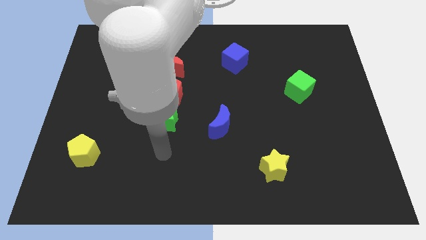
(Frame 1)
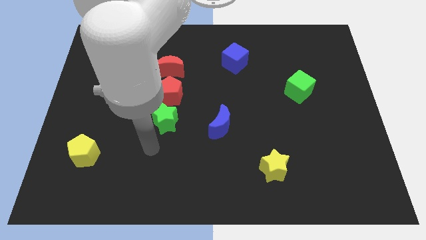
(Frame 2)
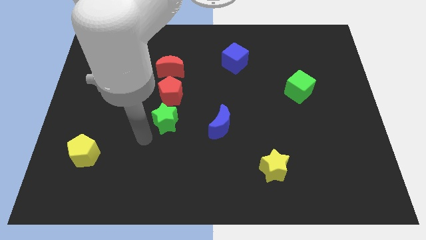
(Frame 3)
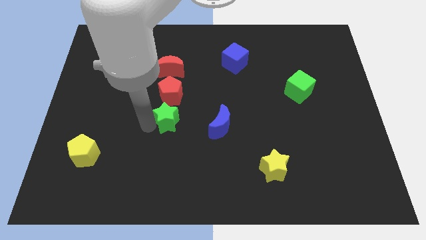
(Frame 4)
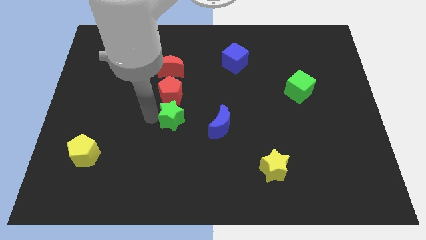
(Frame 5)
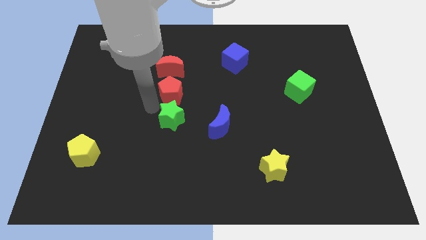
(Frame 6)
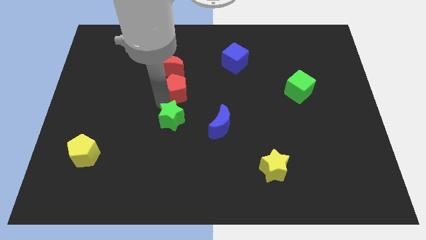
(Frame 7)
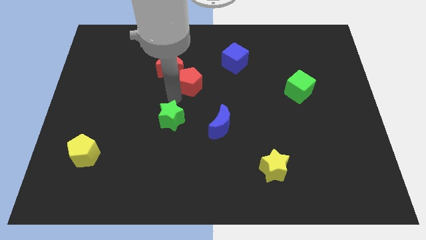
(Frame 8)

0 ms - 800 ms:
move the green star away from the red pentagon

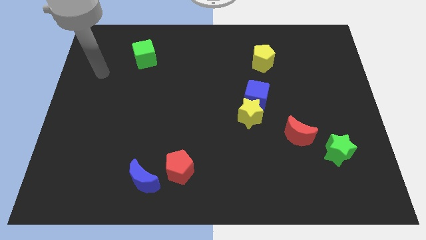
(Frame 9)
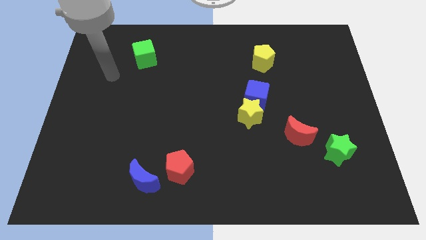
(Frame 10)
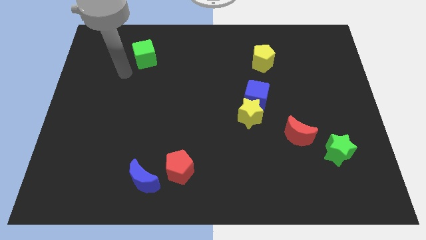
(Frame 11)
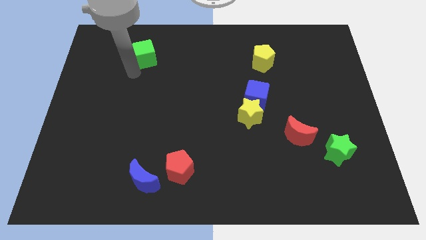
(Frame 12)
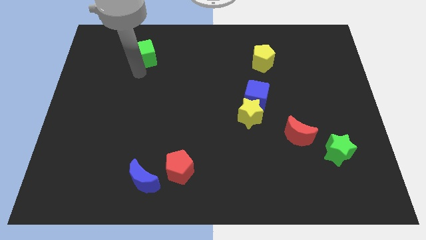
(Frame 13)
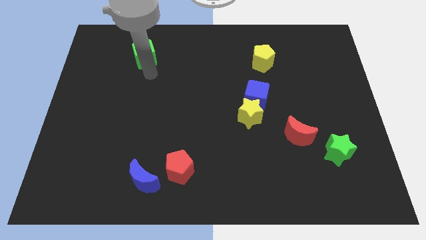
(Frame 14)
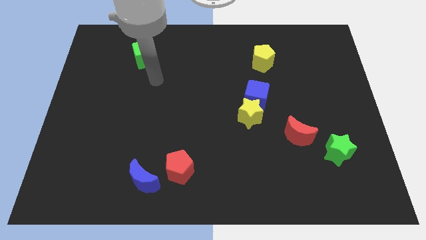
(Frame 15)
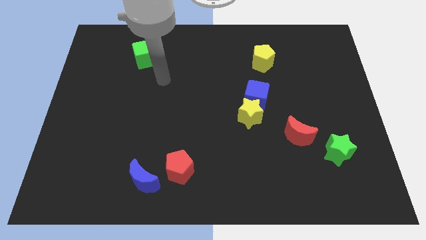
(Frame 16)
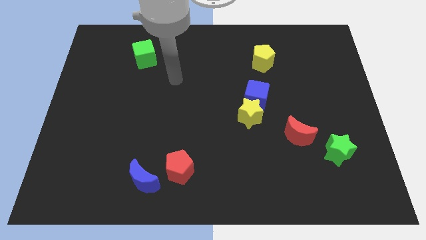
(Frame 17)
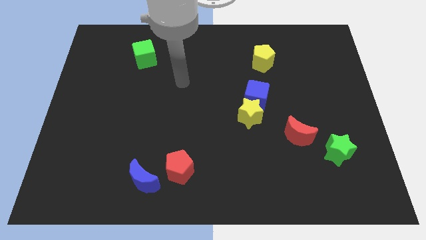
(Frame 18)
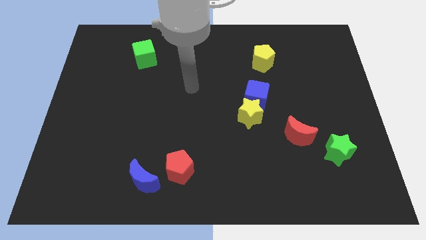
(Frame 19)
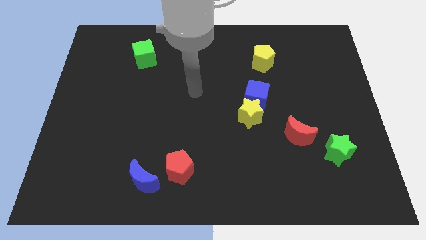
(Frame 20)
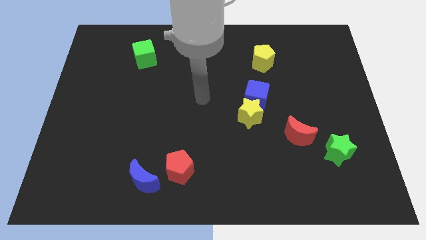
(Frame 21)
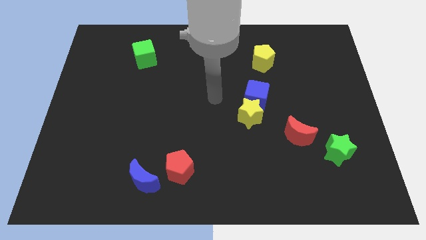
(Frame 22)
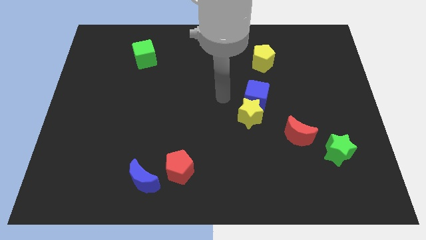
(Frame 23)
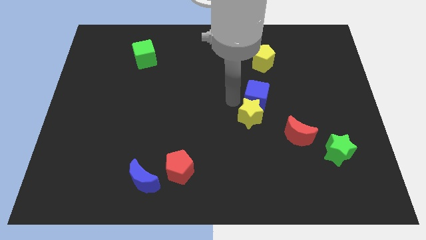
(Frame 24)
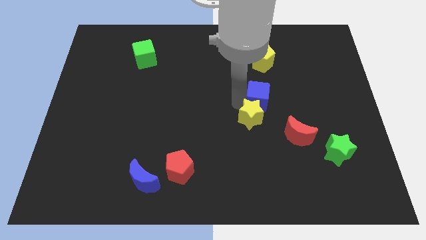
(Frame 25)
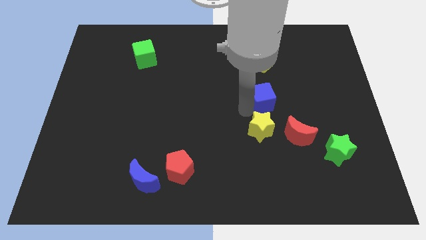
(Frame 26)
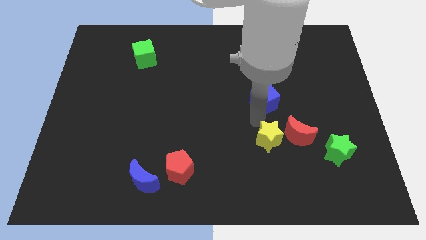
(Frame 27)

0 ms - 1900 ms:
move the blue cube away from the yellow star

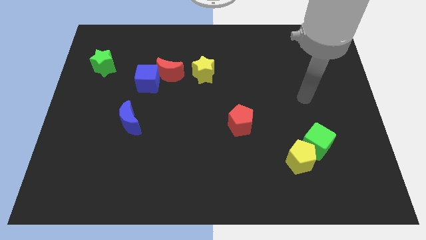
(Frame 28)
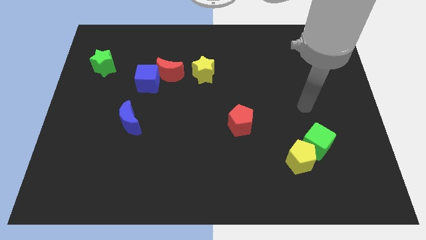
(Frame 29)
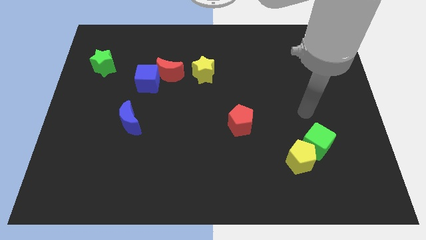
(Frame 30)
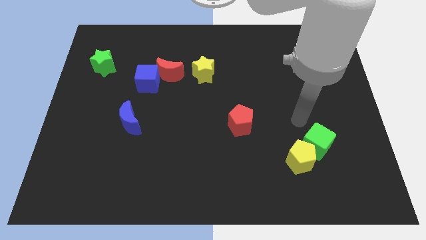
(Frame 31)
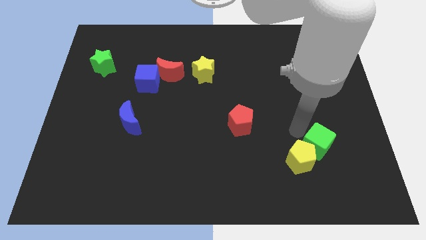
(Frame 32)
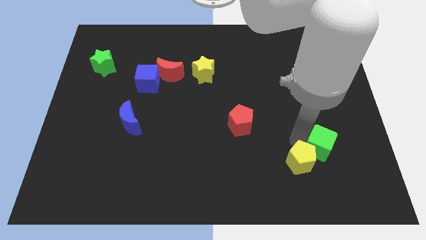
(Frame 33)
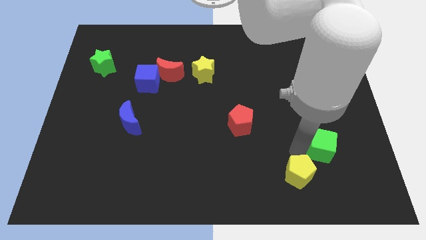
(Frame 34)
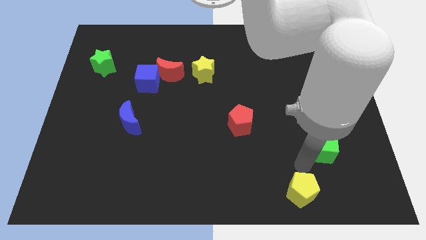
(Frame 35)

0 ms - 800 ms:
separate the green cube from the yellow pentagon

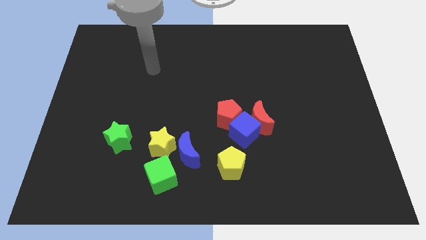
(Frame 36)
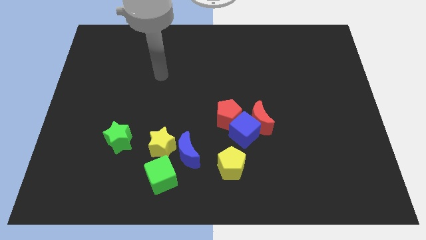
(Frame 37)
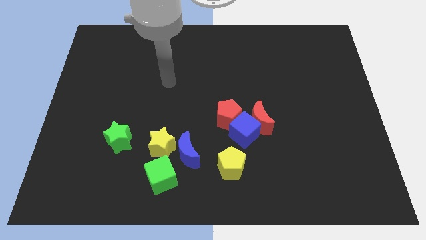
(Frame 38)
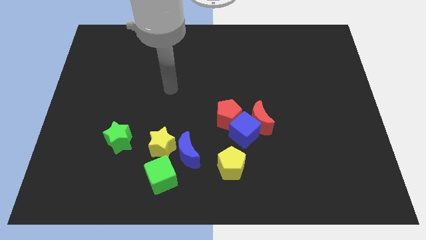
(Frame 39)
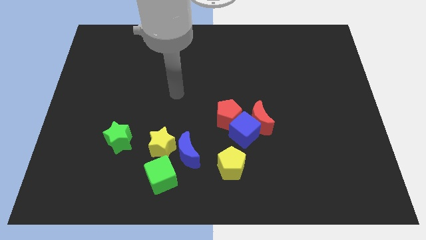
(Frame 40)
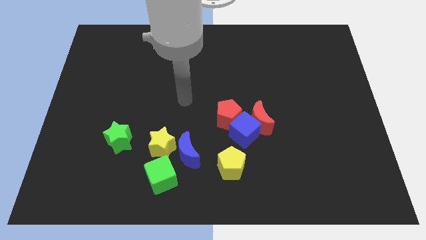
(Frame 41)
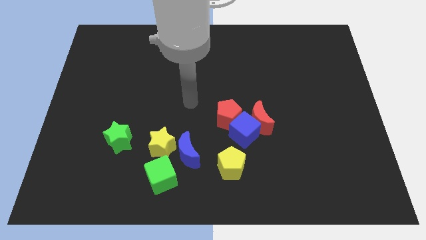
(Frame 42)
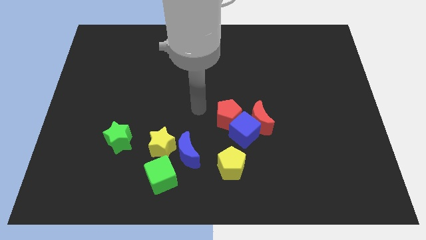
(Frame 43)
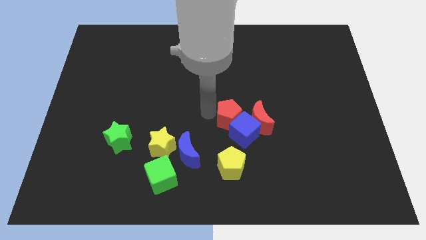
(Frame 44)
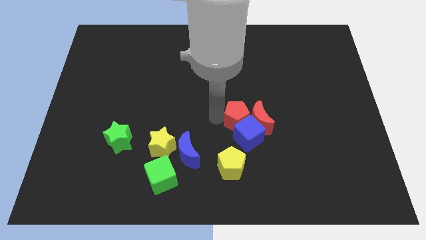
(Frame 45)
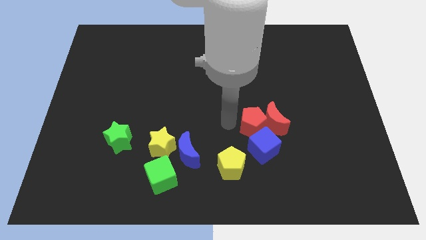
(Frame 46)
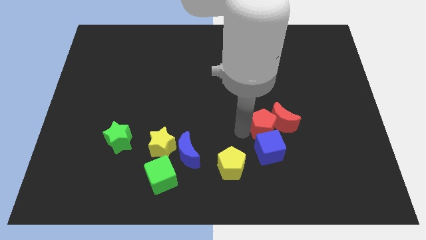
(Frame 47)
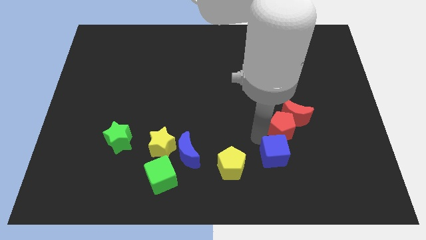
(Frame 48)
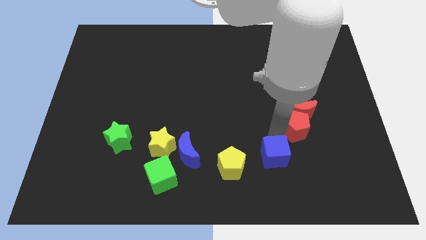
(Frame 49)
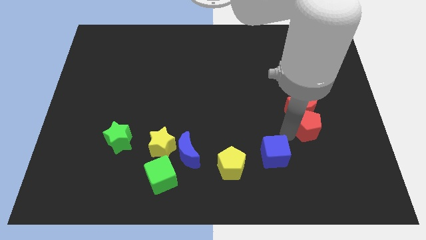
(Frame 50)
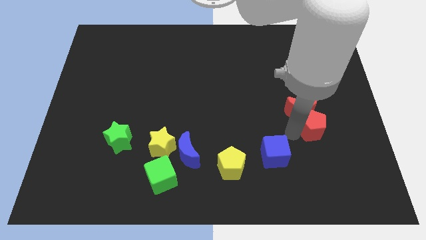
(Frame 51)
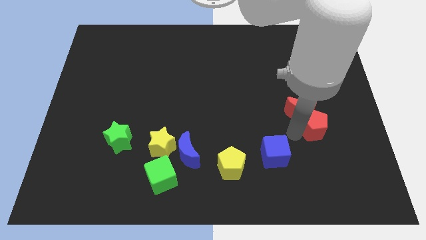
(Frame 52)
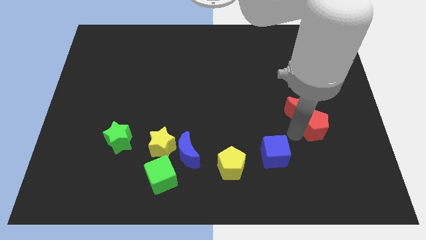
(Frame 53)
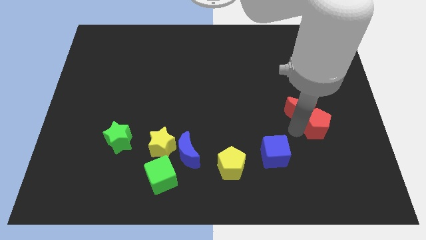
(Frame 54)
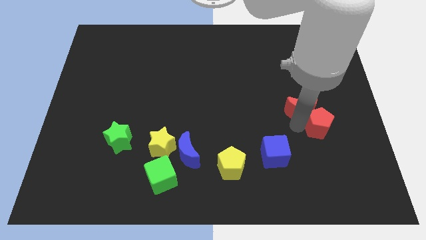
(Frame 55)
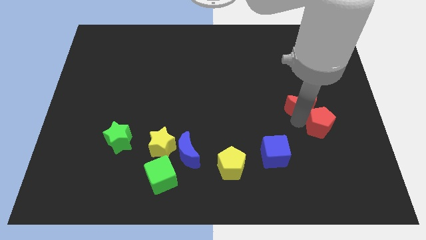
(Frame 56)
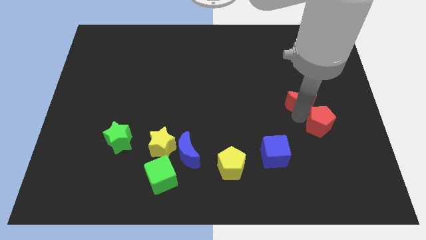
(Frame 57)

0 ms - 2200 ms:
pull the red moon apart from the blue cube and red pentagon

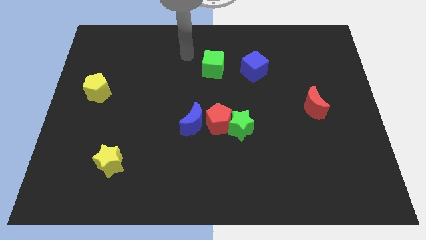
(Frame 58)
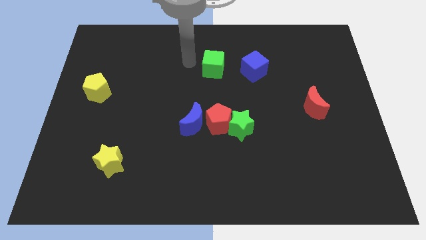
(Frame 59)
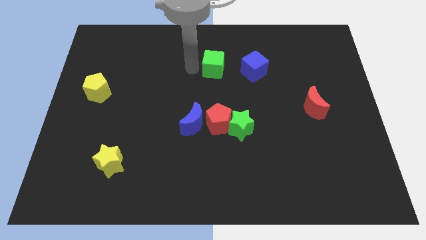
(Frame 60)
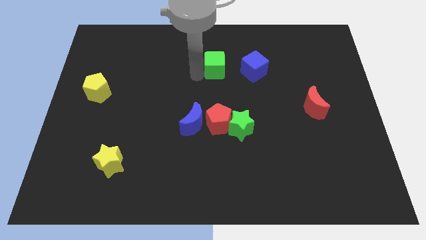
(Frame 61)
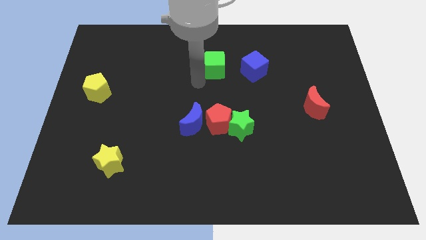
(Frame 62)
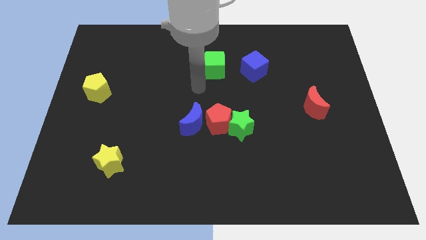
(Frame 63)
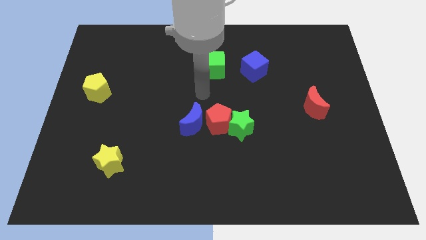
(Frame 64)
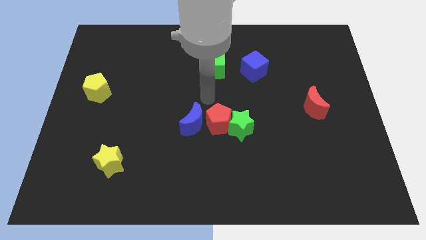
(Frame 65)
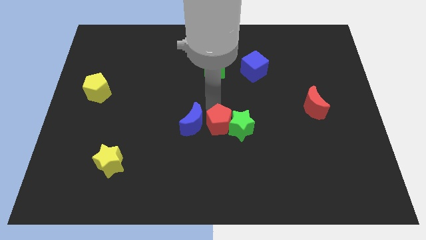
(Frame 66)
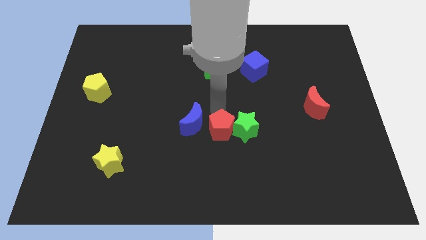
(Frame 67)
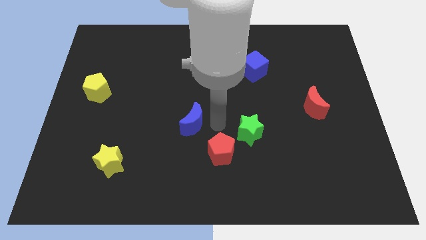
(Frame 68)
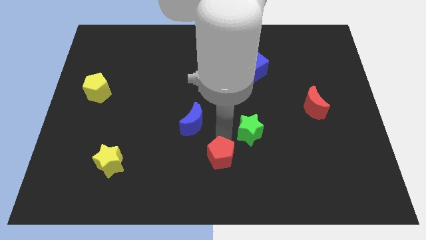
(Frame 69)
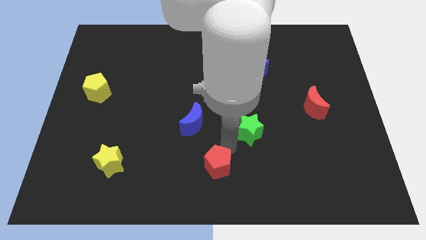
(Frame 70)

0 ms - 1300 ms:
separate the green star from the red pentagon

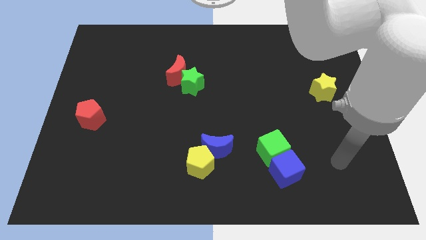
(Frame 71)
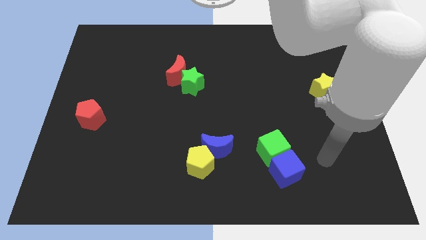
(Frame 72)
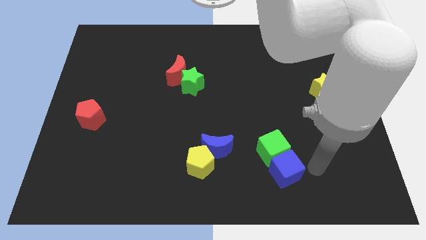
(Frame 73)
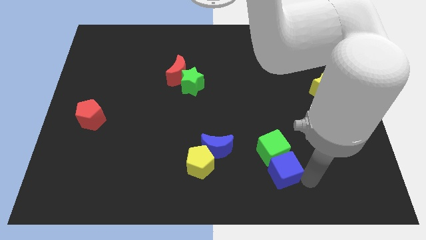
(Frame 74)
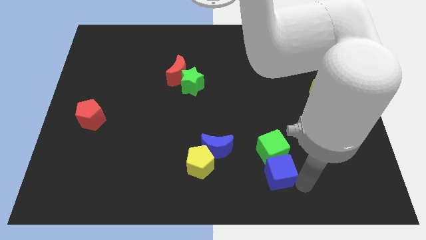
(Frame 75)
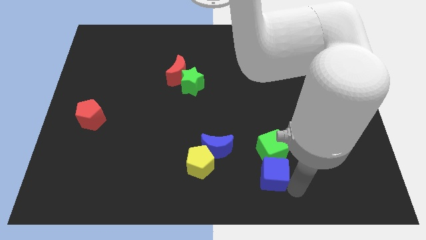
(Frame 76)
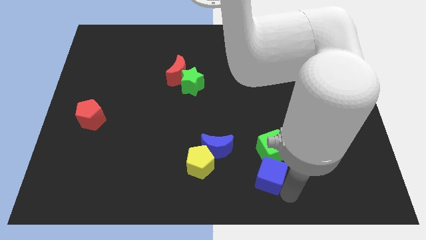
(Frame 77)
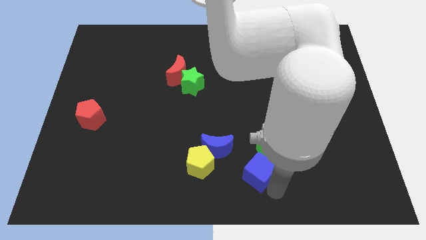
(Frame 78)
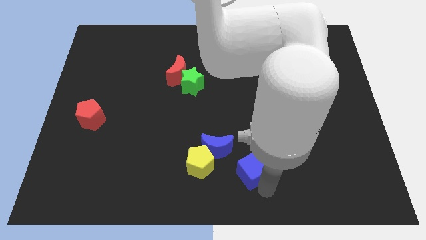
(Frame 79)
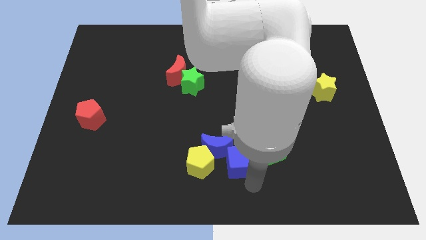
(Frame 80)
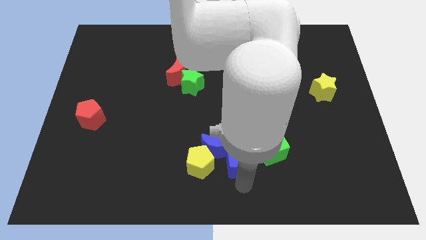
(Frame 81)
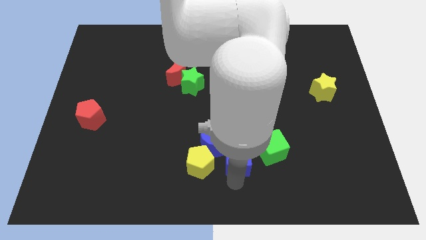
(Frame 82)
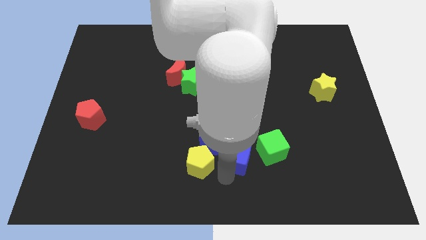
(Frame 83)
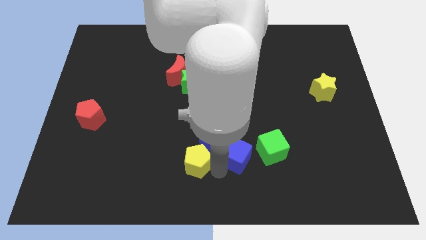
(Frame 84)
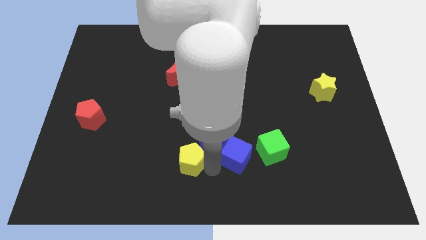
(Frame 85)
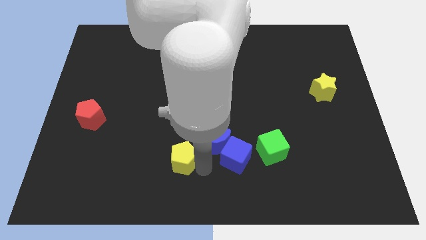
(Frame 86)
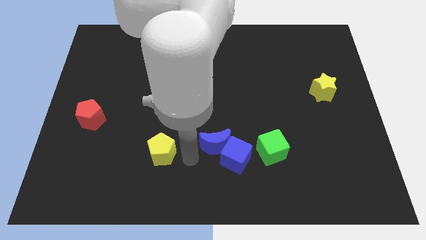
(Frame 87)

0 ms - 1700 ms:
pull the blue moon apart from the yellow pentagon

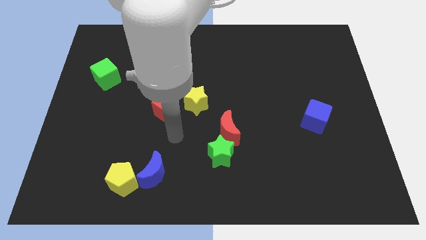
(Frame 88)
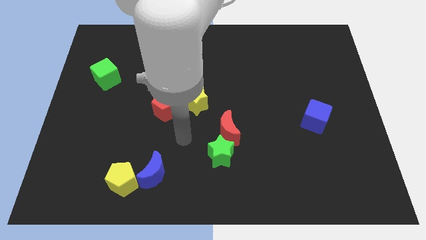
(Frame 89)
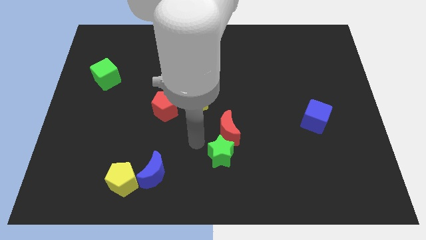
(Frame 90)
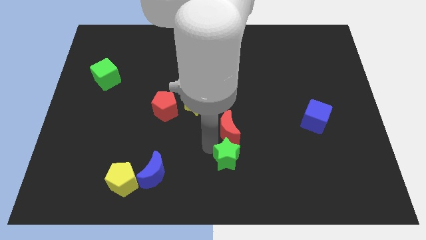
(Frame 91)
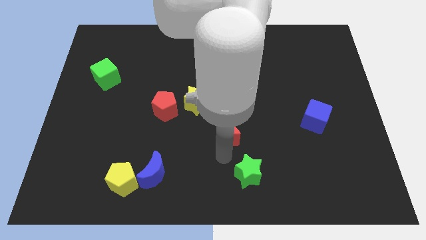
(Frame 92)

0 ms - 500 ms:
pull the red moon apart from the green star

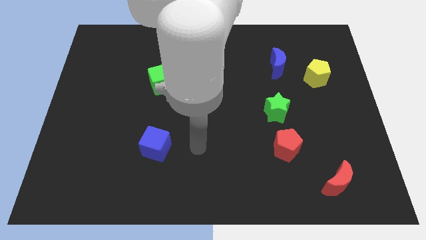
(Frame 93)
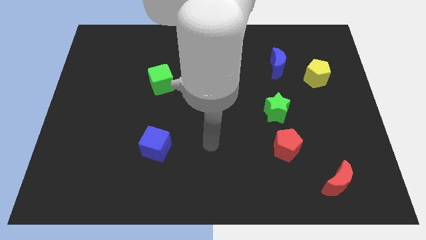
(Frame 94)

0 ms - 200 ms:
move the red pentagon away from the green star
